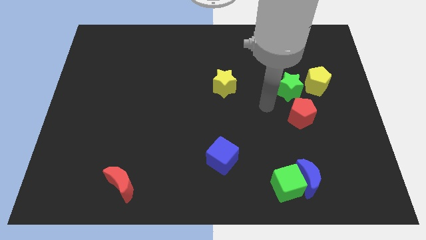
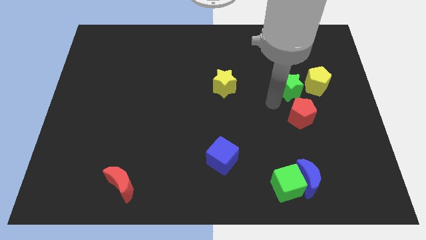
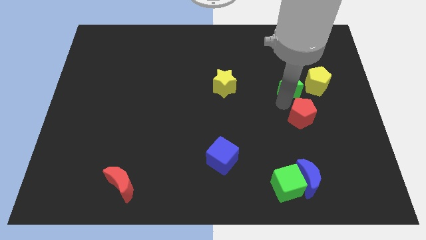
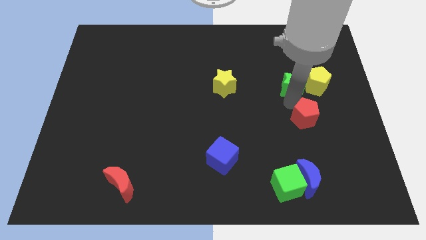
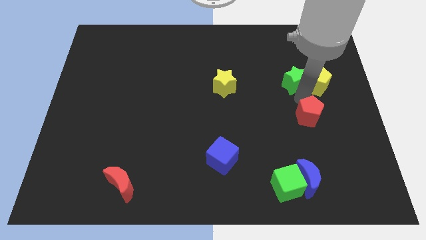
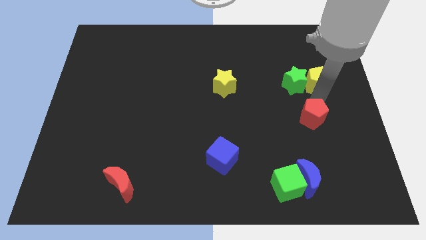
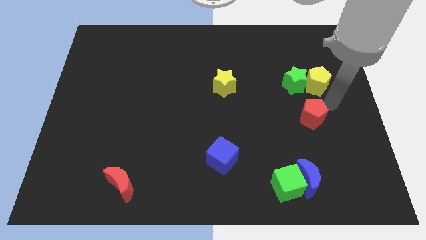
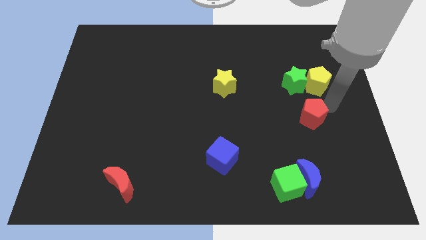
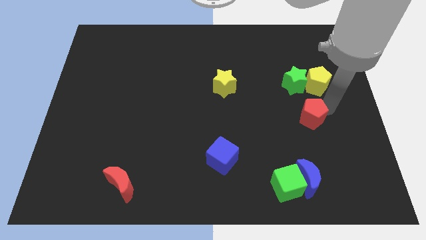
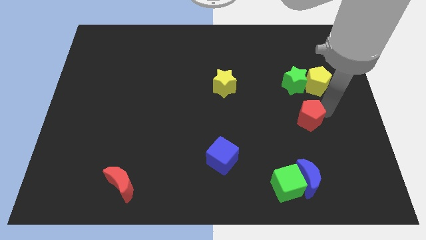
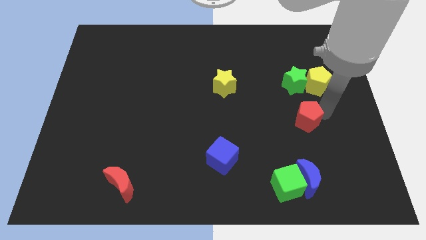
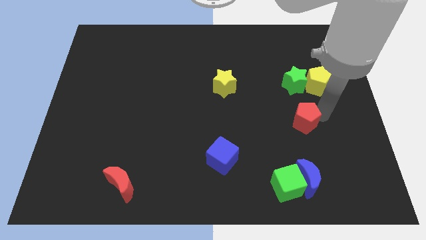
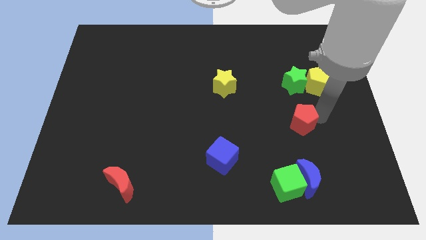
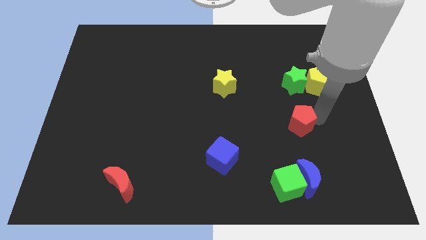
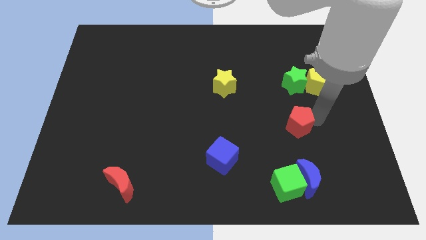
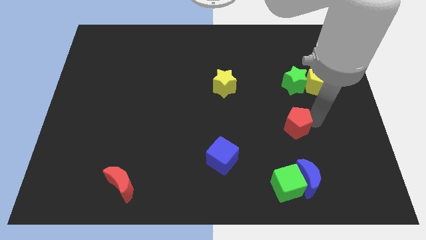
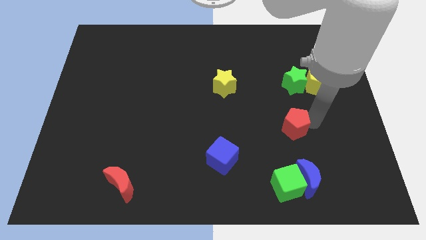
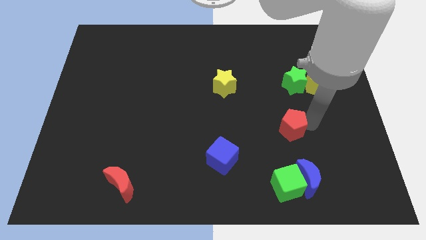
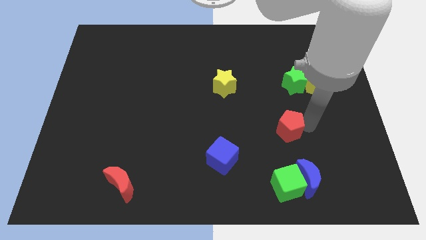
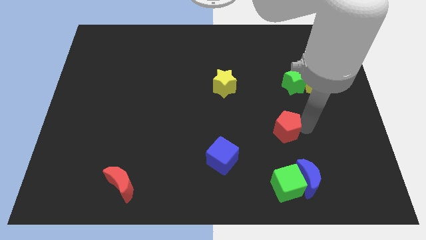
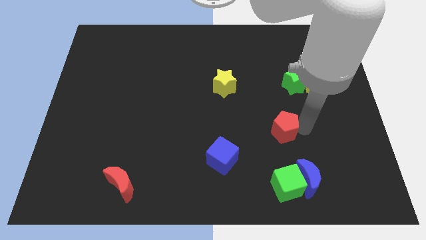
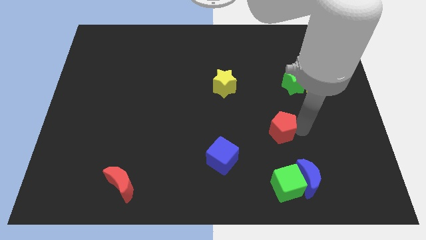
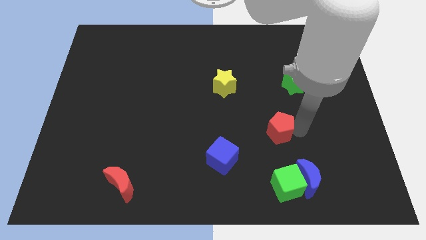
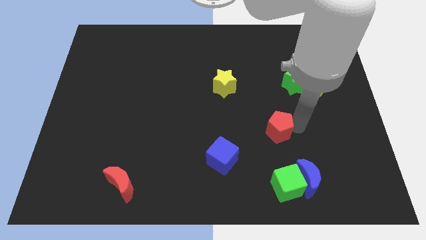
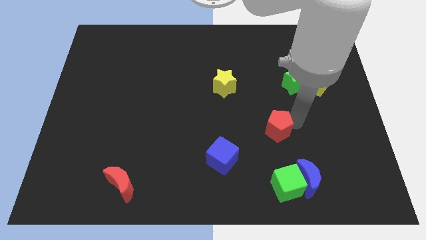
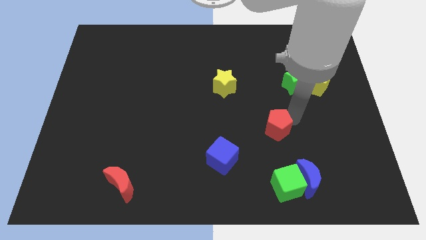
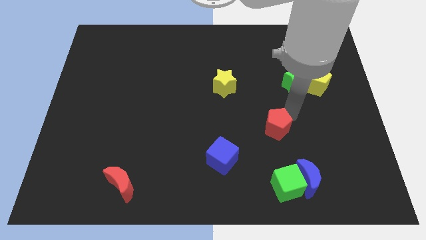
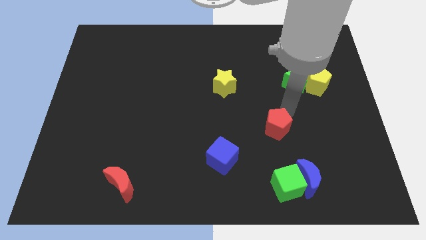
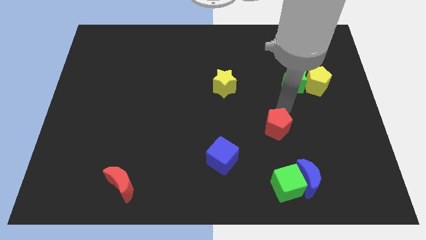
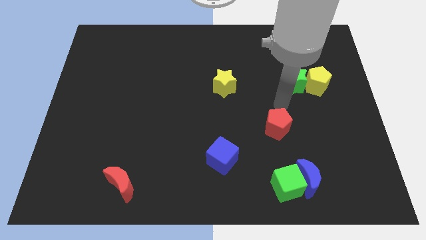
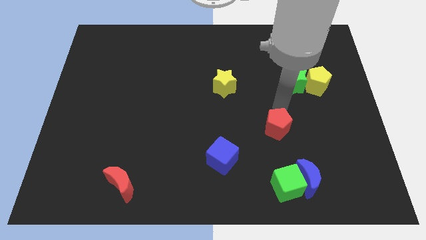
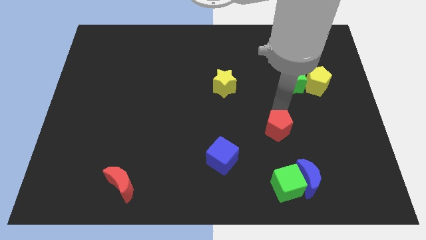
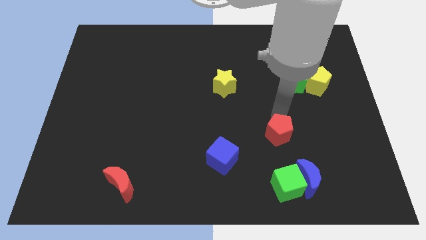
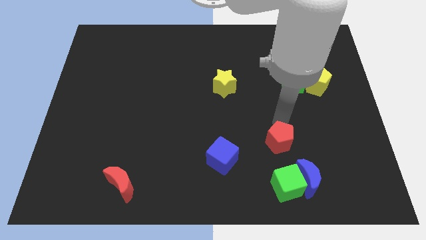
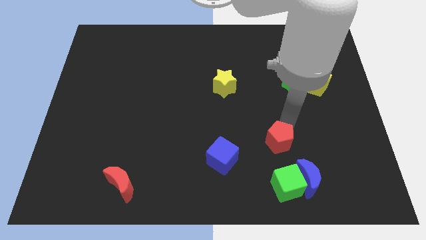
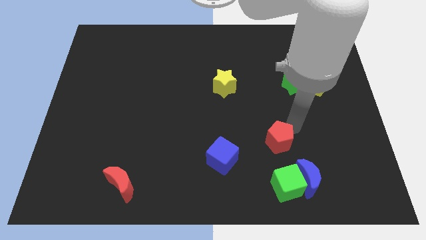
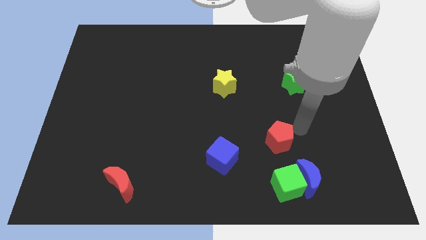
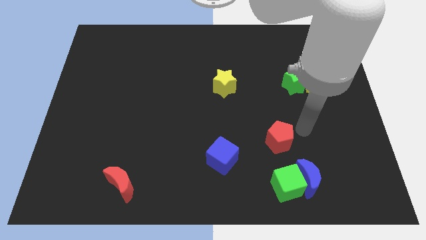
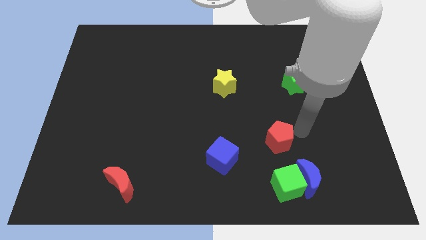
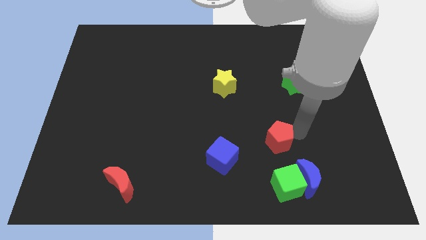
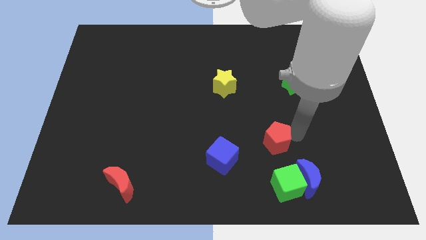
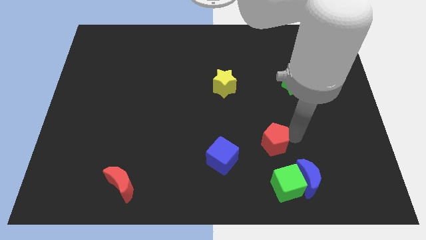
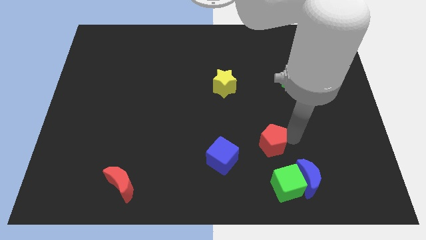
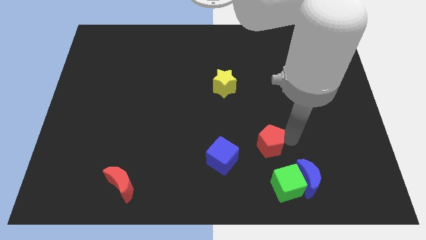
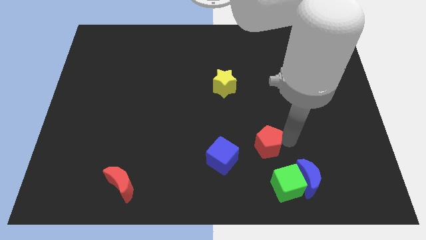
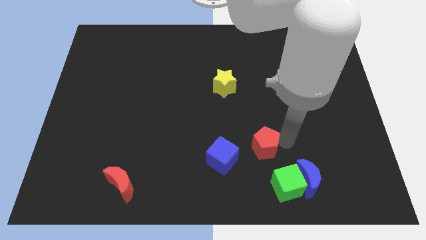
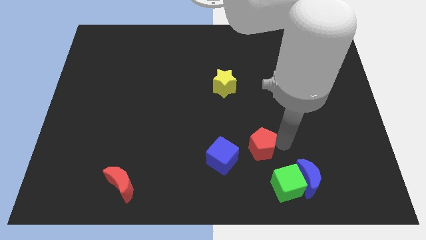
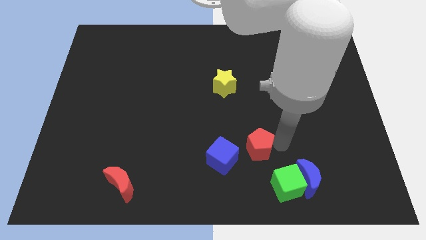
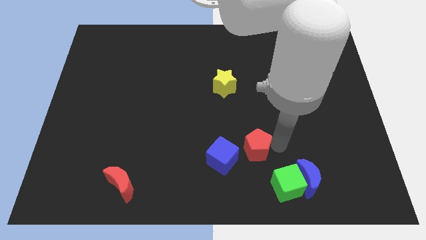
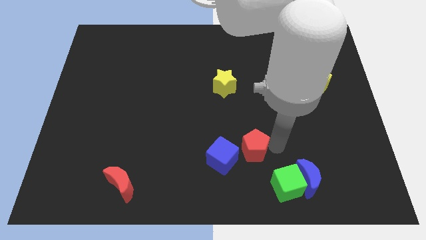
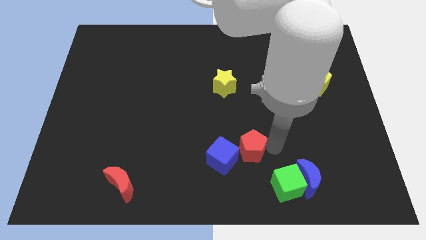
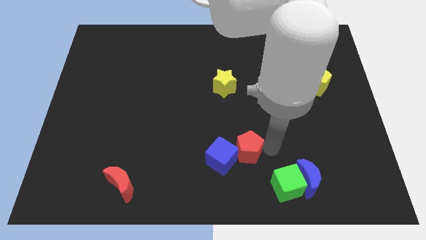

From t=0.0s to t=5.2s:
put the red pentagon close to the blue cube

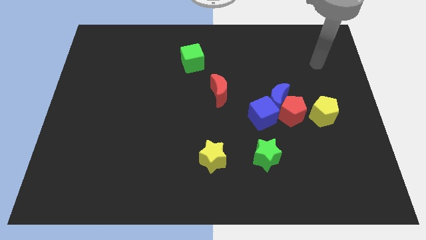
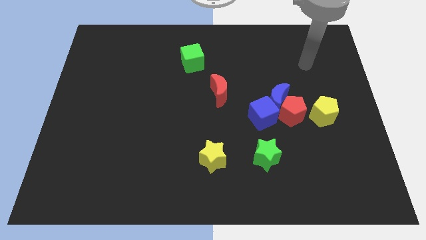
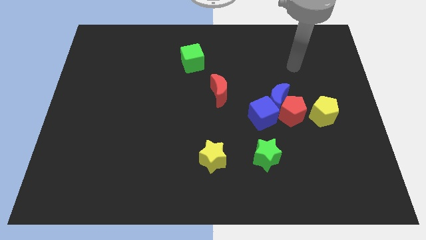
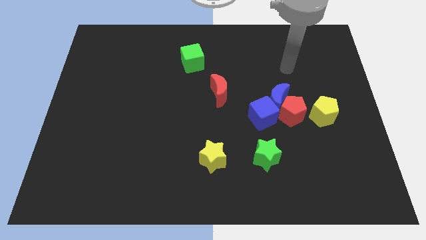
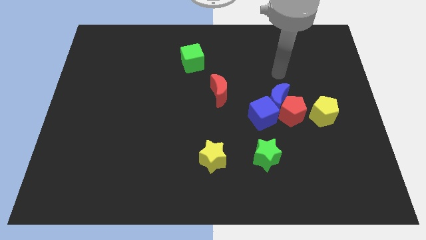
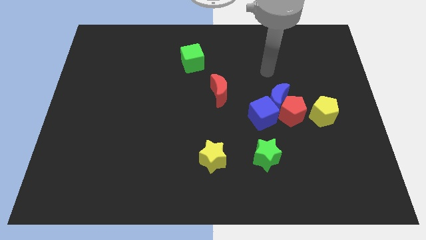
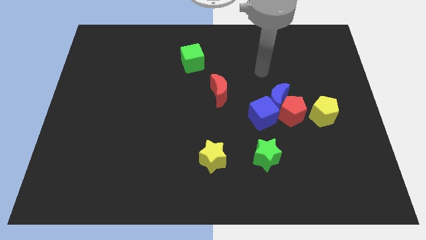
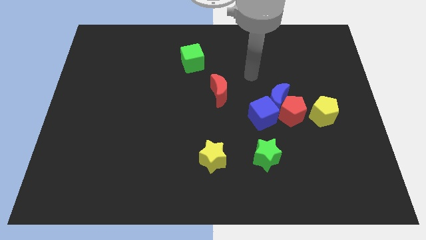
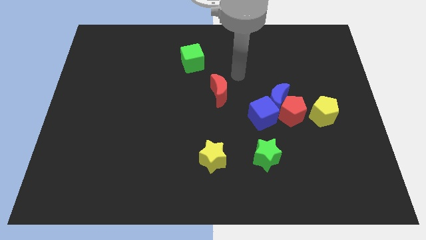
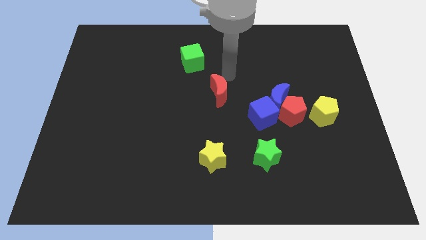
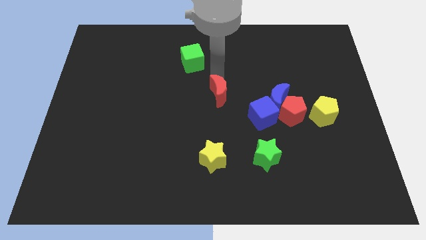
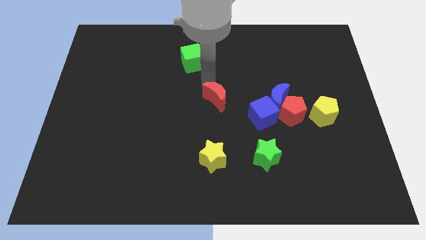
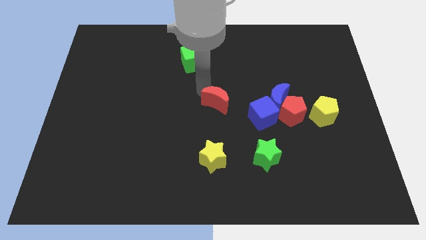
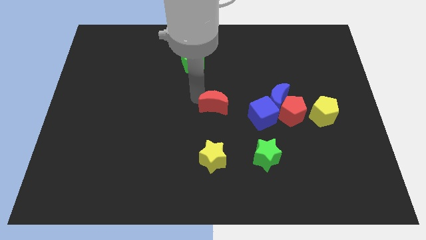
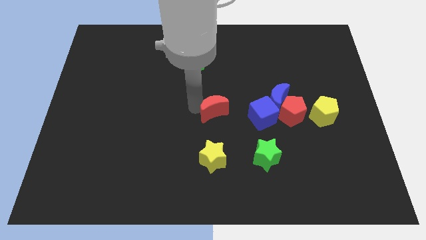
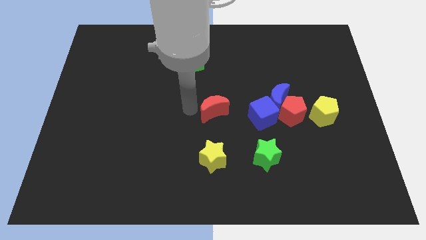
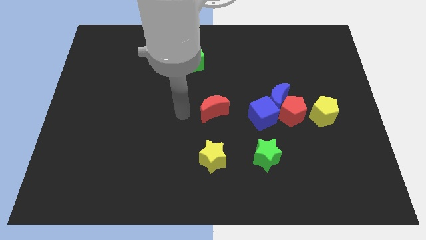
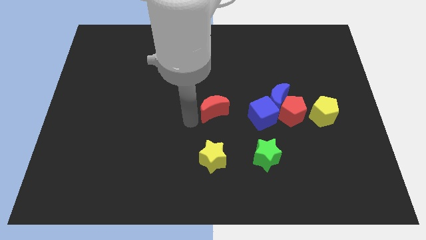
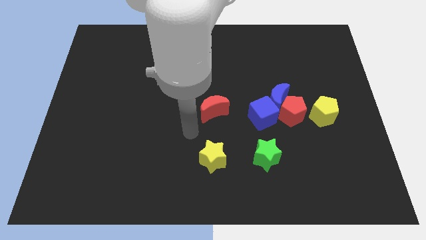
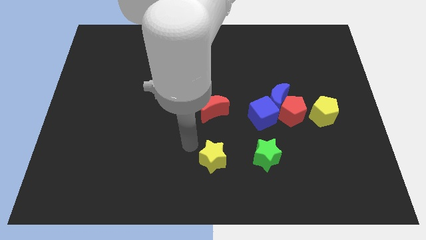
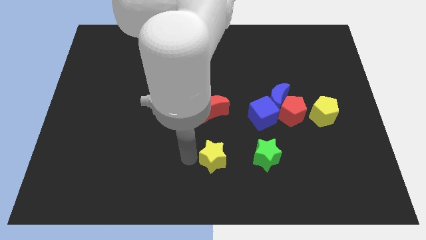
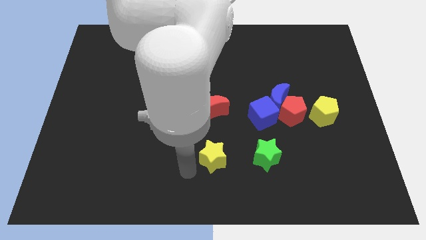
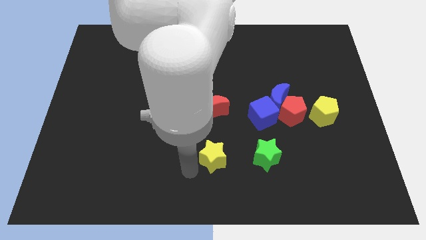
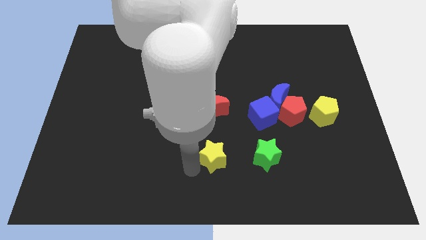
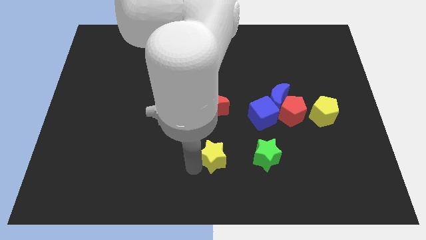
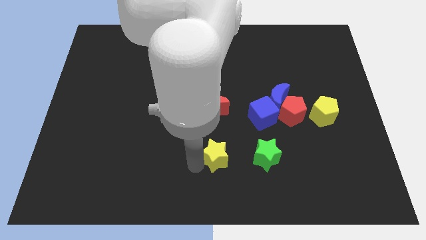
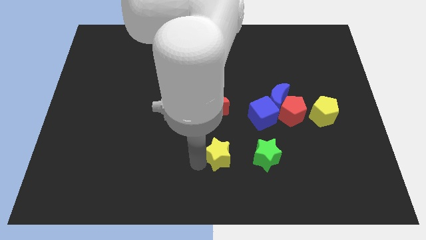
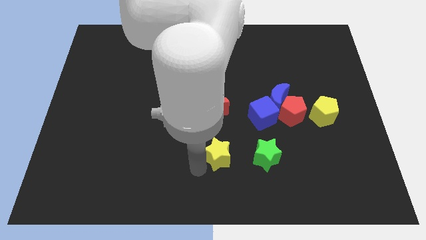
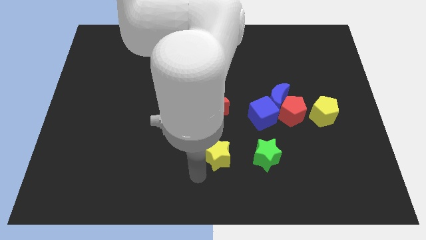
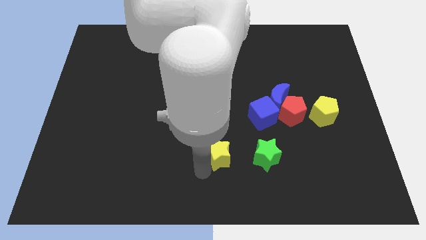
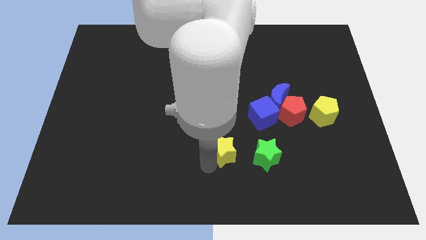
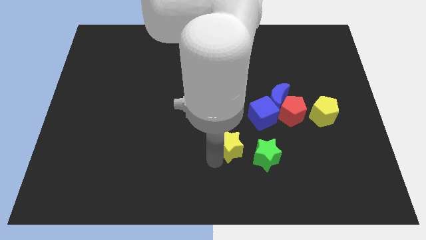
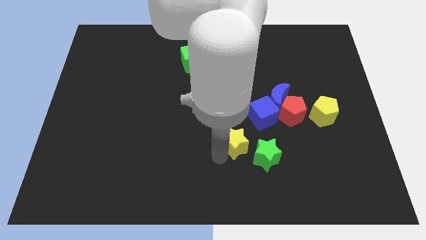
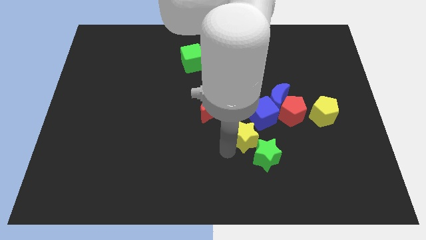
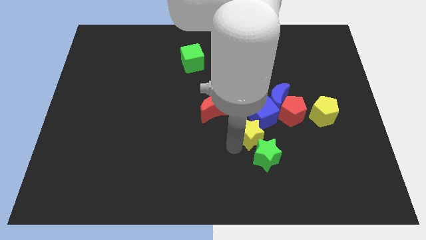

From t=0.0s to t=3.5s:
slide the yellow star to the blue cube
